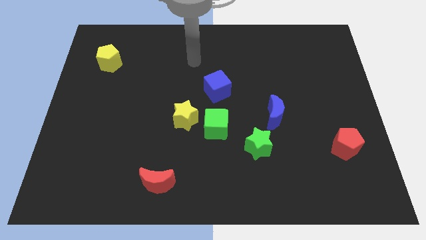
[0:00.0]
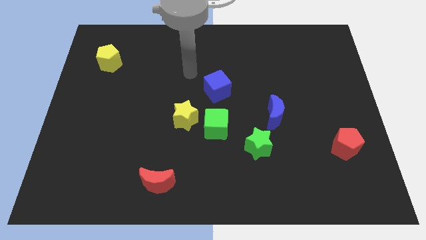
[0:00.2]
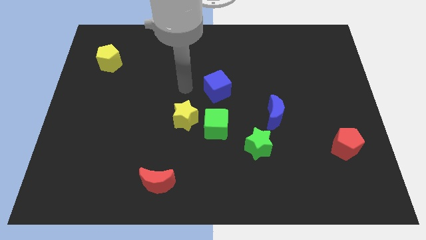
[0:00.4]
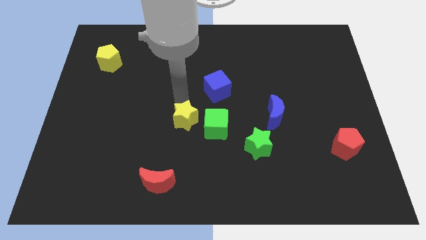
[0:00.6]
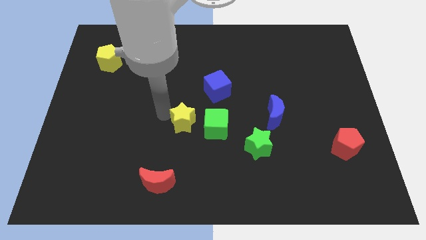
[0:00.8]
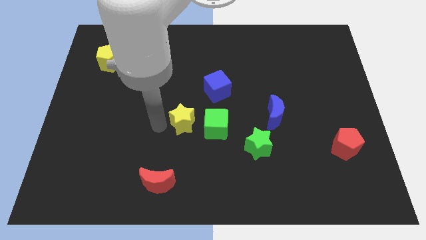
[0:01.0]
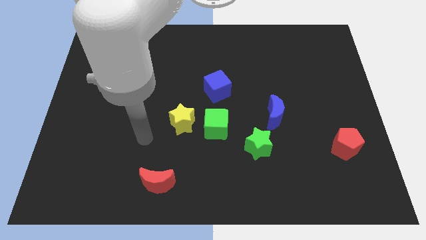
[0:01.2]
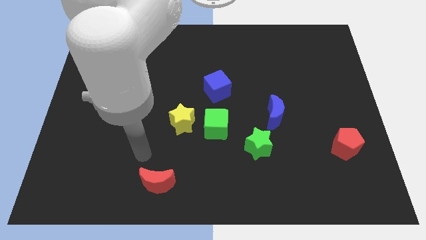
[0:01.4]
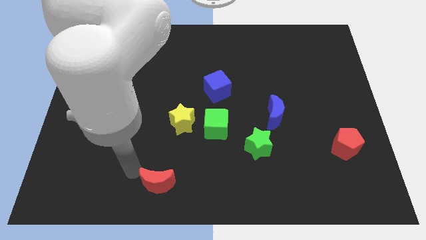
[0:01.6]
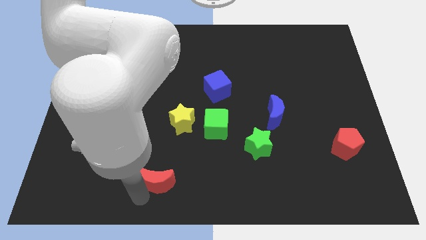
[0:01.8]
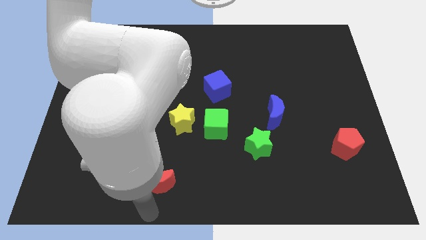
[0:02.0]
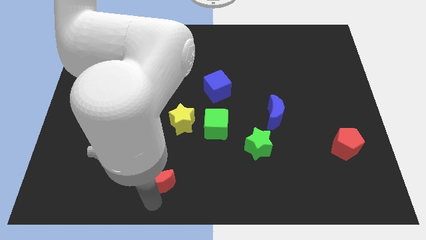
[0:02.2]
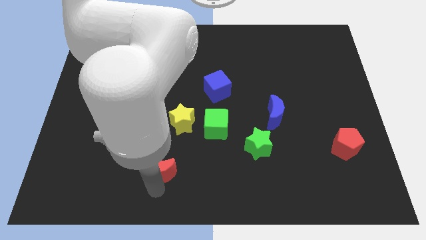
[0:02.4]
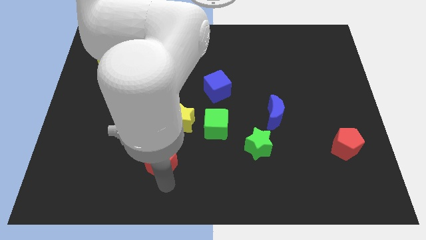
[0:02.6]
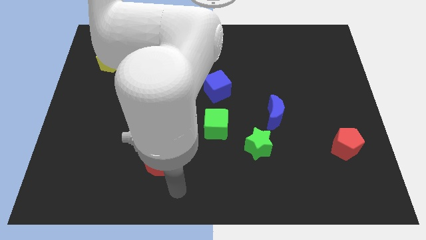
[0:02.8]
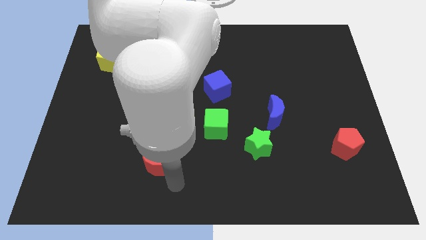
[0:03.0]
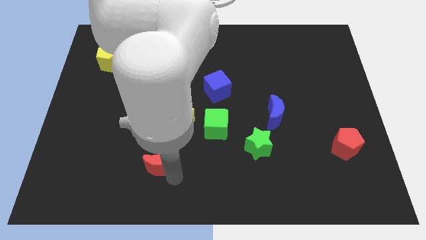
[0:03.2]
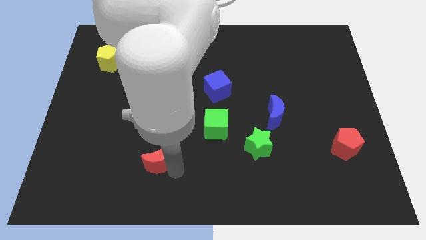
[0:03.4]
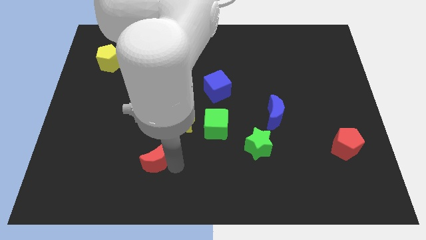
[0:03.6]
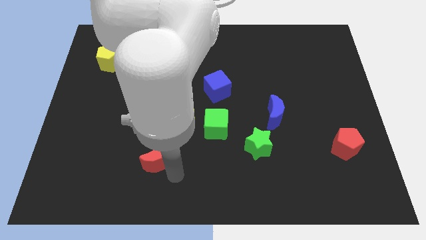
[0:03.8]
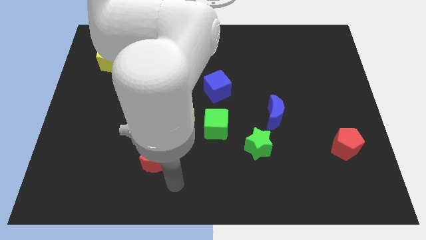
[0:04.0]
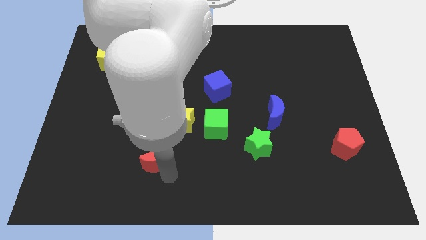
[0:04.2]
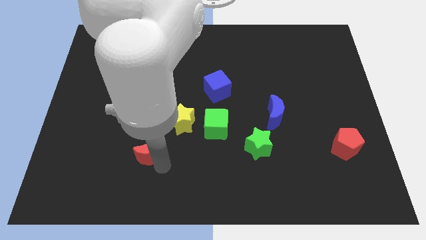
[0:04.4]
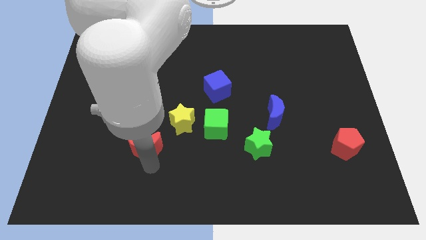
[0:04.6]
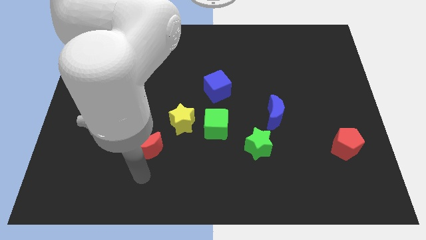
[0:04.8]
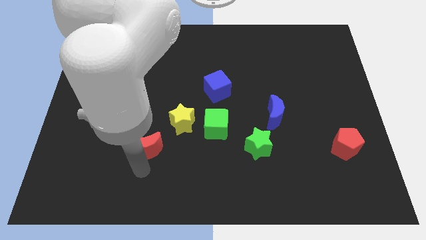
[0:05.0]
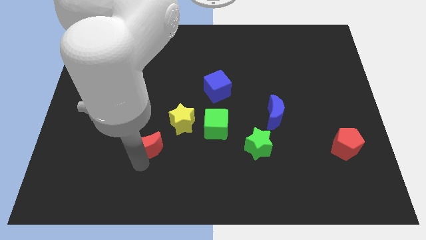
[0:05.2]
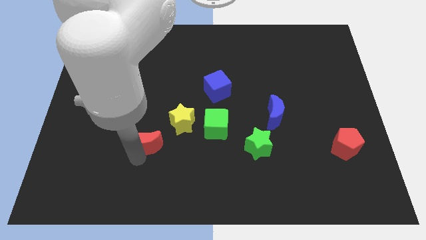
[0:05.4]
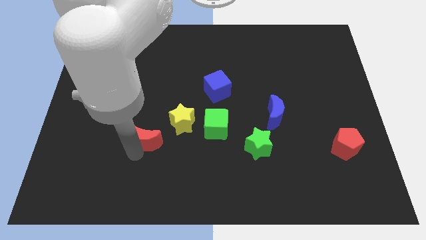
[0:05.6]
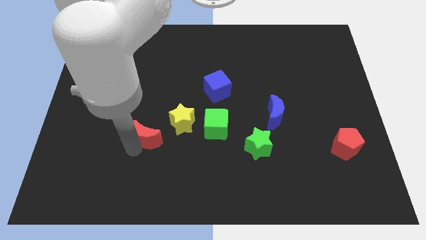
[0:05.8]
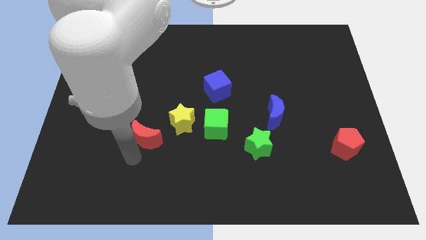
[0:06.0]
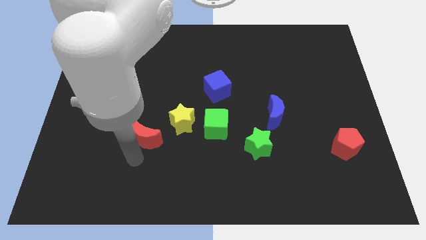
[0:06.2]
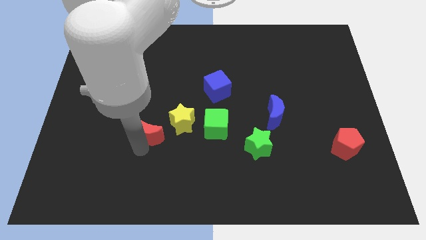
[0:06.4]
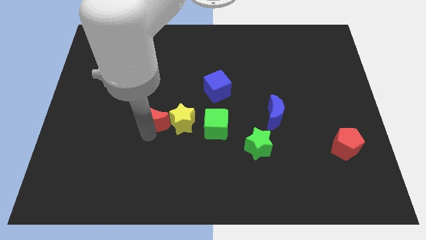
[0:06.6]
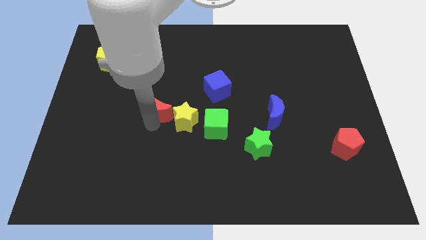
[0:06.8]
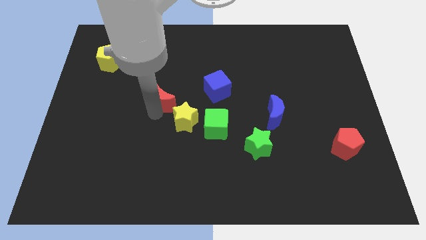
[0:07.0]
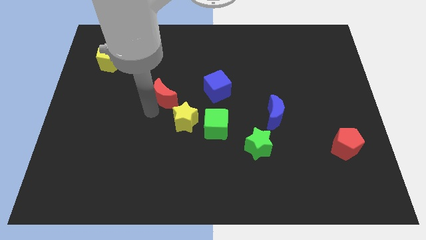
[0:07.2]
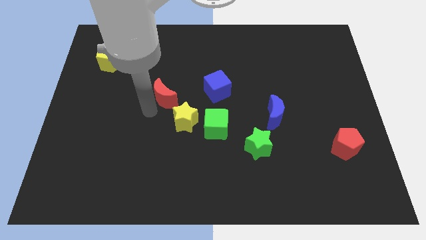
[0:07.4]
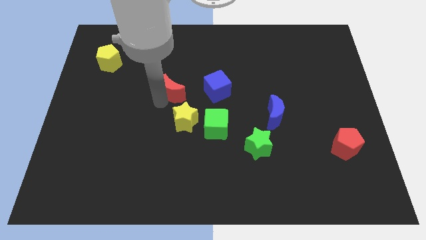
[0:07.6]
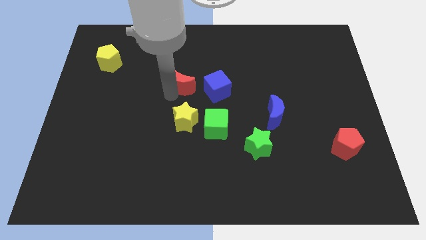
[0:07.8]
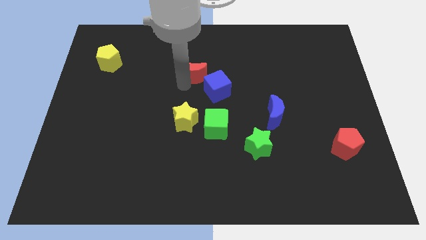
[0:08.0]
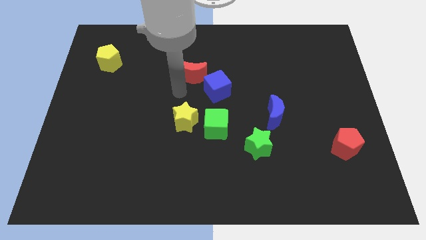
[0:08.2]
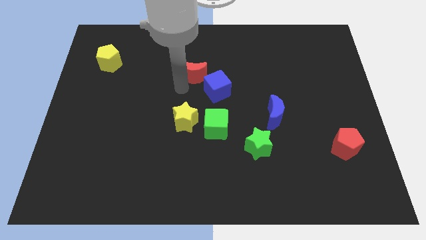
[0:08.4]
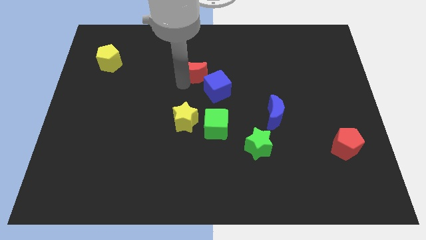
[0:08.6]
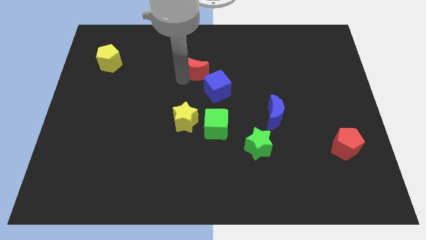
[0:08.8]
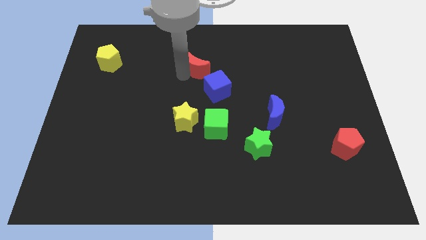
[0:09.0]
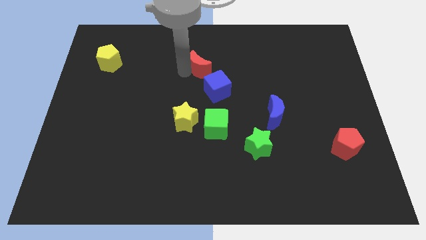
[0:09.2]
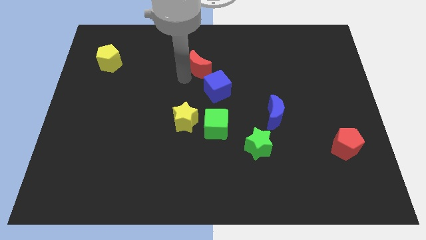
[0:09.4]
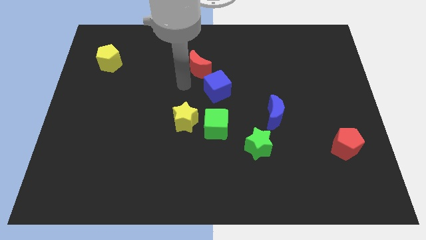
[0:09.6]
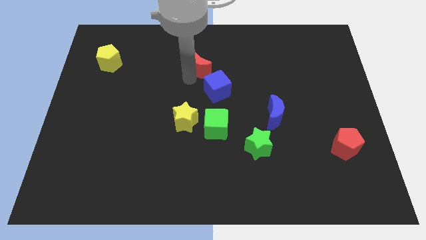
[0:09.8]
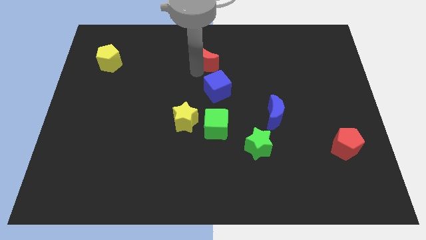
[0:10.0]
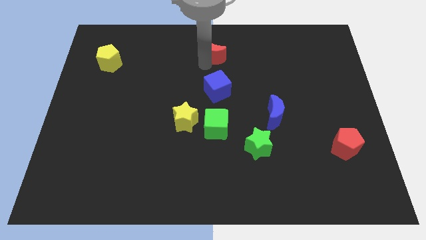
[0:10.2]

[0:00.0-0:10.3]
put the red moon to the top side
